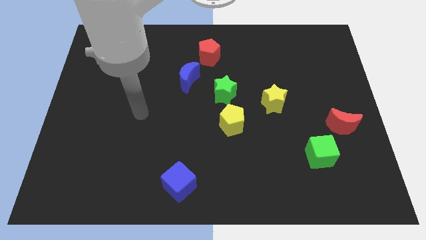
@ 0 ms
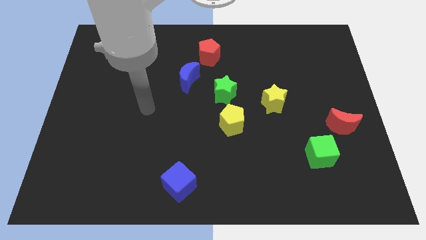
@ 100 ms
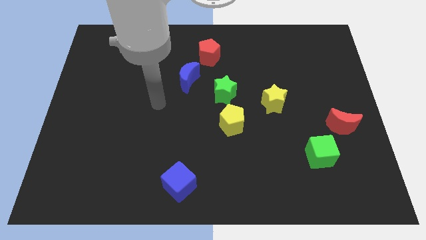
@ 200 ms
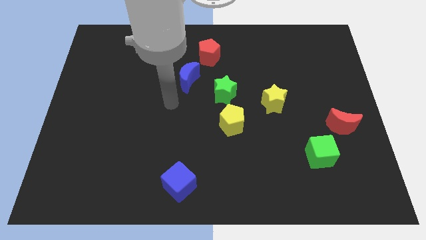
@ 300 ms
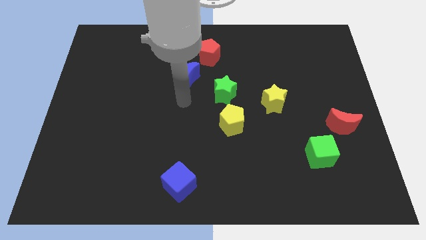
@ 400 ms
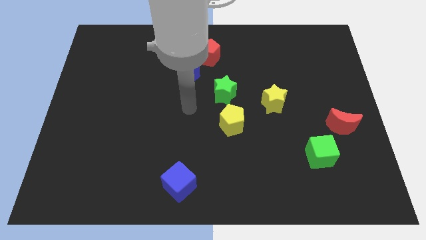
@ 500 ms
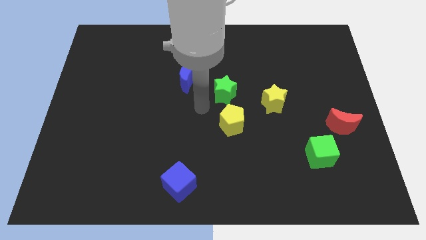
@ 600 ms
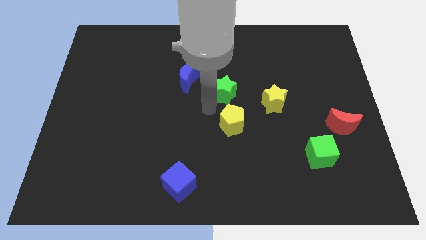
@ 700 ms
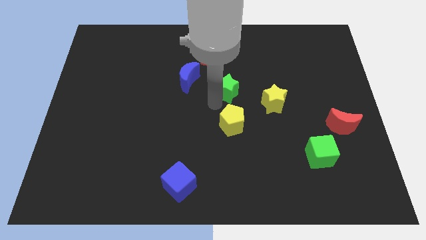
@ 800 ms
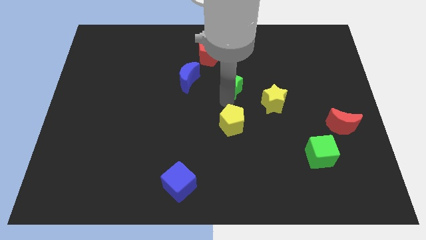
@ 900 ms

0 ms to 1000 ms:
move the yellow pentagon away from the green star

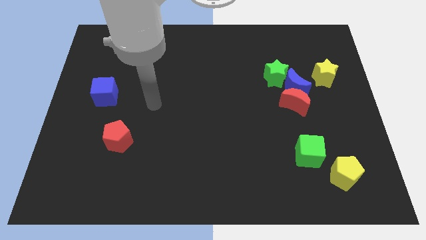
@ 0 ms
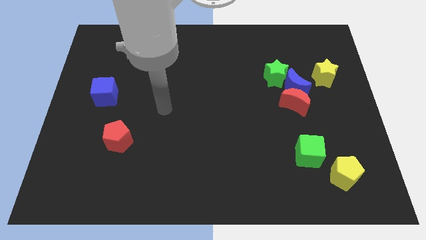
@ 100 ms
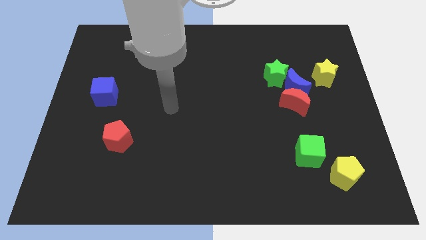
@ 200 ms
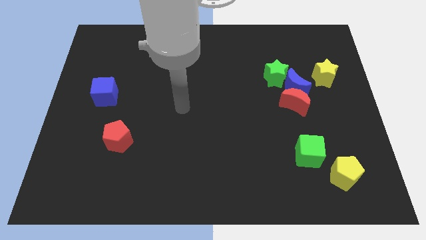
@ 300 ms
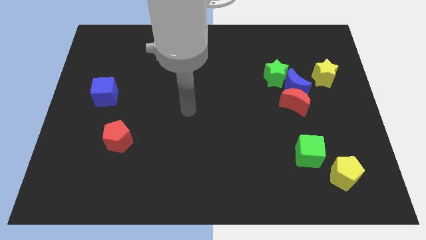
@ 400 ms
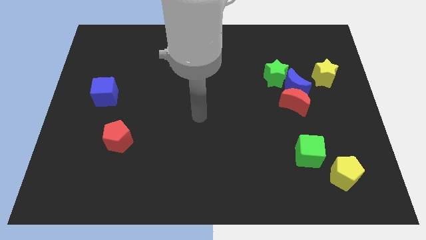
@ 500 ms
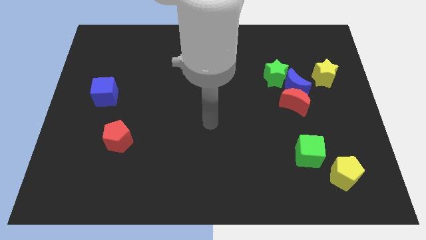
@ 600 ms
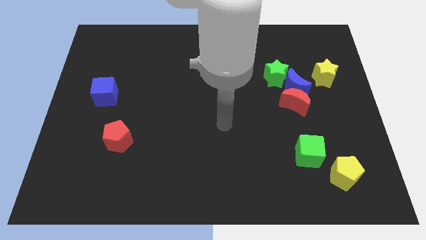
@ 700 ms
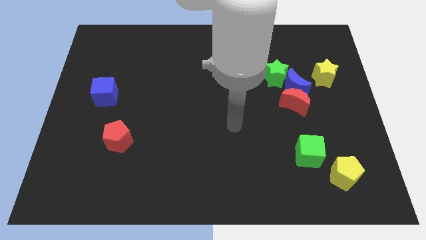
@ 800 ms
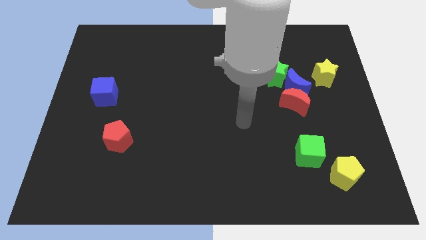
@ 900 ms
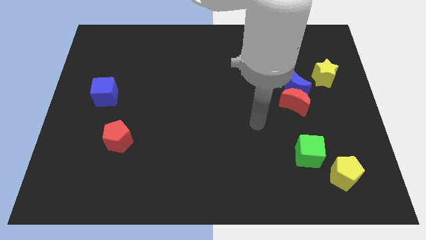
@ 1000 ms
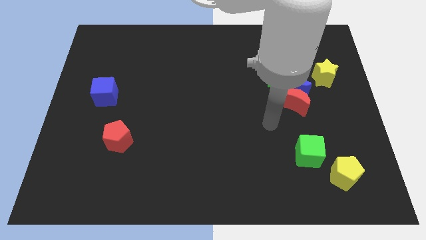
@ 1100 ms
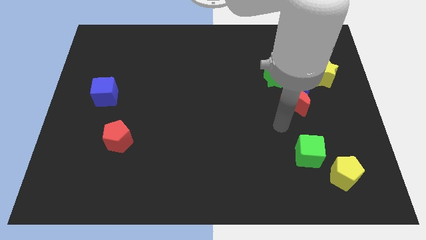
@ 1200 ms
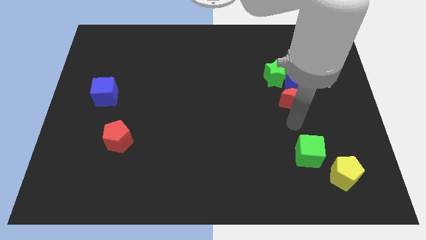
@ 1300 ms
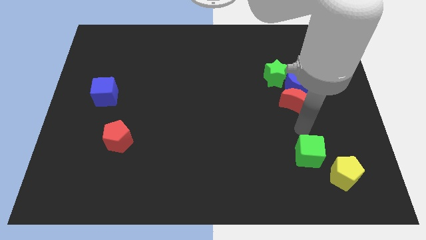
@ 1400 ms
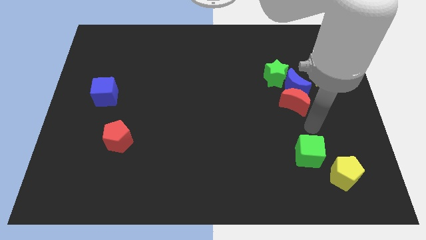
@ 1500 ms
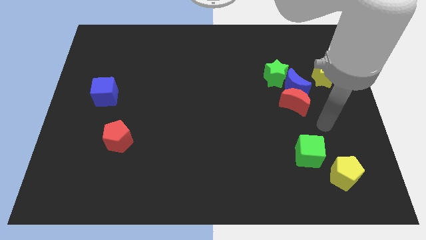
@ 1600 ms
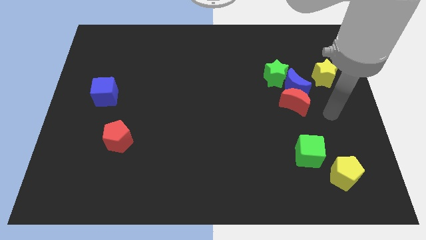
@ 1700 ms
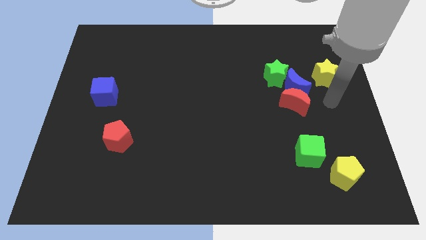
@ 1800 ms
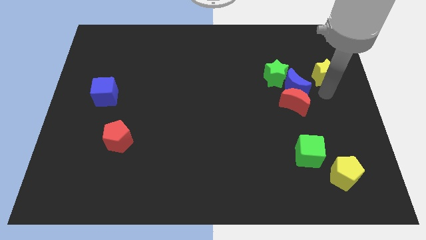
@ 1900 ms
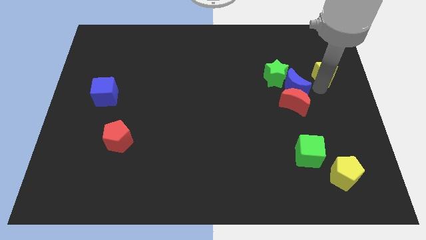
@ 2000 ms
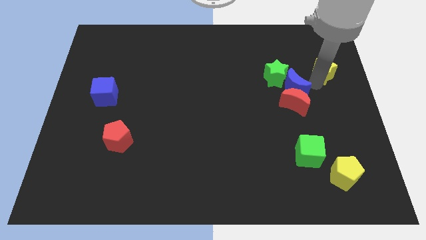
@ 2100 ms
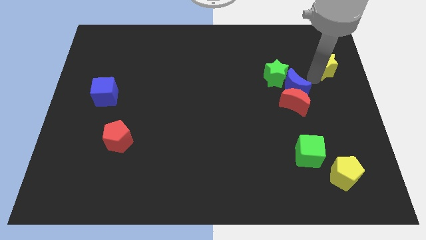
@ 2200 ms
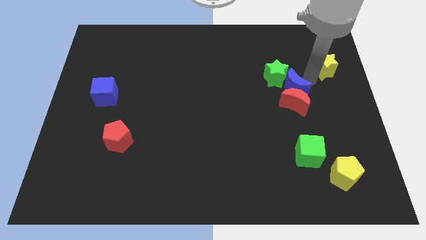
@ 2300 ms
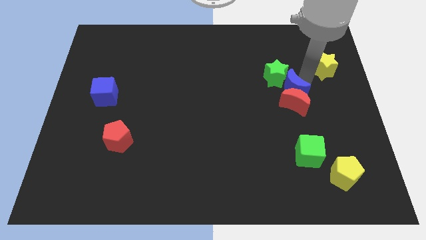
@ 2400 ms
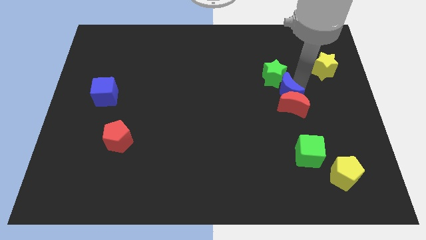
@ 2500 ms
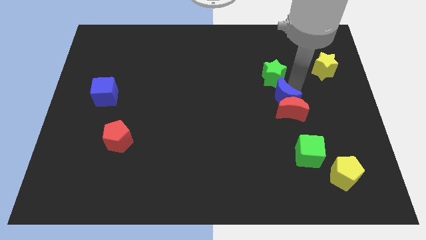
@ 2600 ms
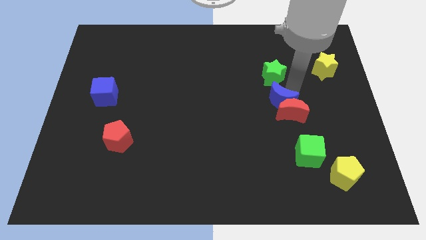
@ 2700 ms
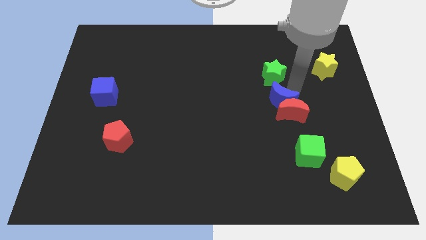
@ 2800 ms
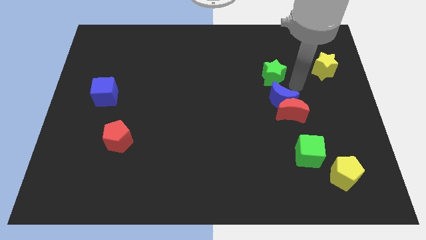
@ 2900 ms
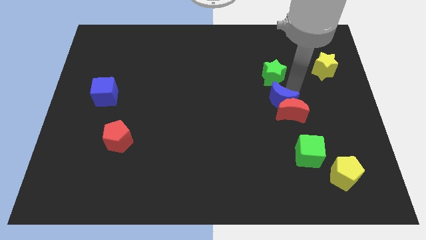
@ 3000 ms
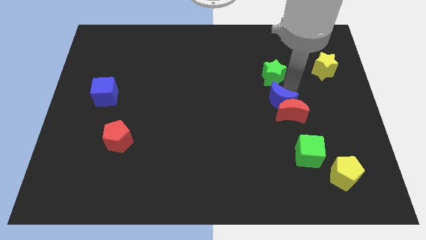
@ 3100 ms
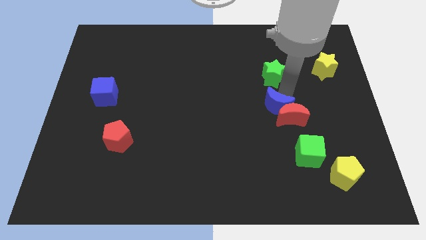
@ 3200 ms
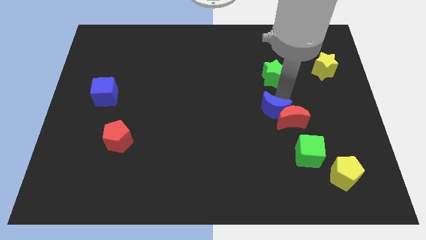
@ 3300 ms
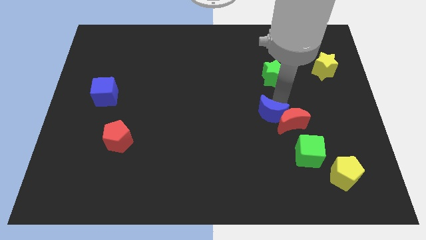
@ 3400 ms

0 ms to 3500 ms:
move the blue moon away from the red moon, green star, and yellow star

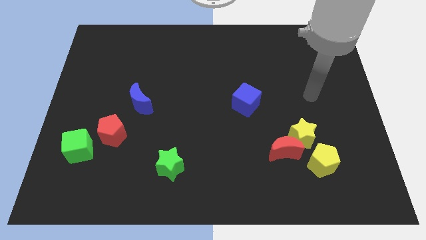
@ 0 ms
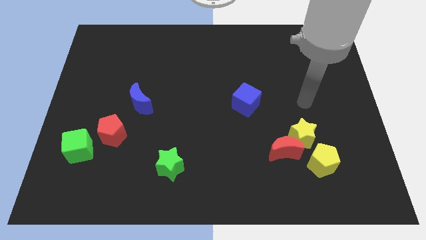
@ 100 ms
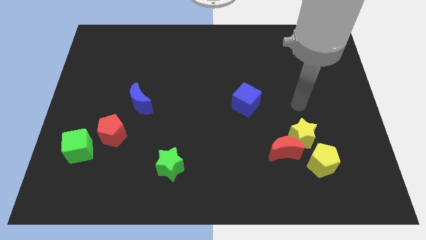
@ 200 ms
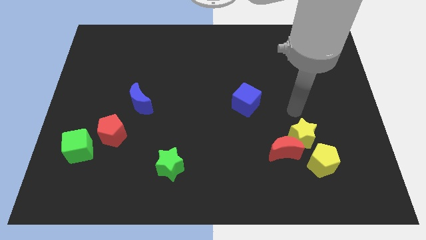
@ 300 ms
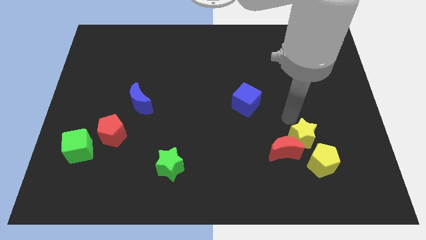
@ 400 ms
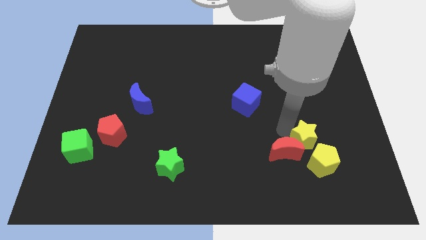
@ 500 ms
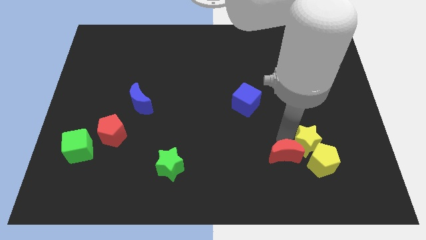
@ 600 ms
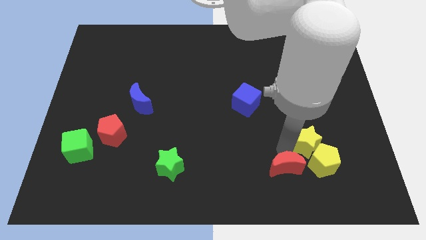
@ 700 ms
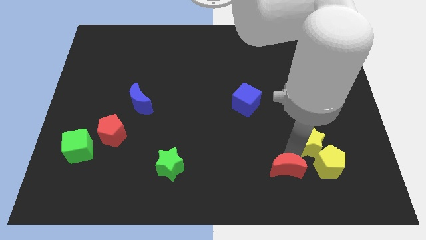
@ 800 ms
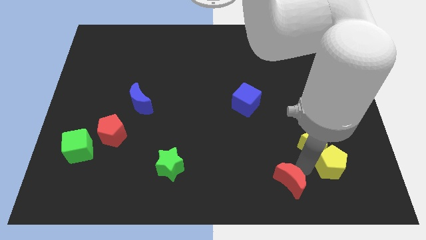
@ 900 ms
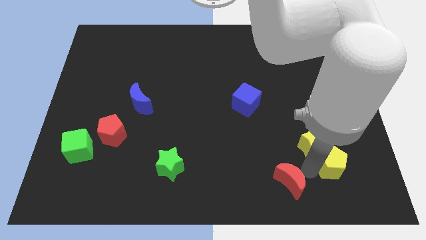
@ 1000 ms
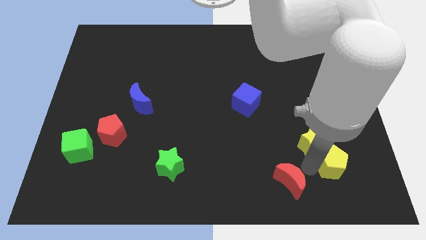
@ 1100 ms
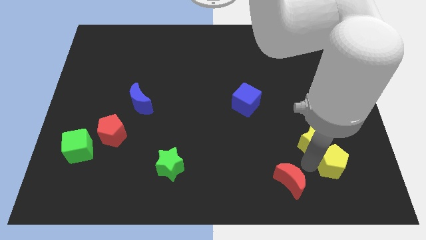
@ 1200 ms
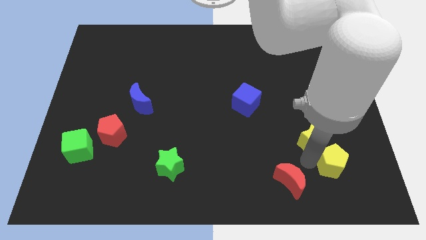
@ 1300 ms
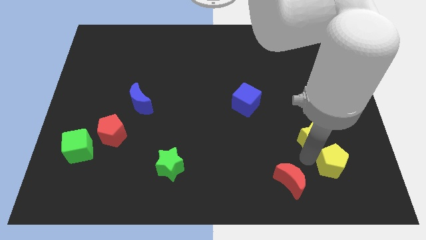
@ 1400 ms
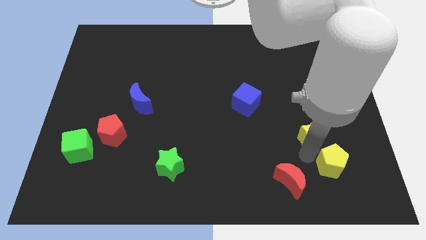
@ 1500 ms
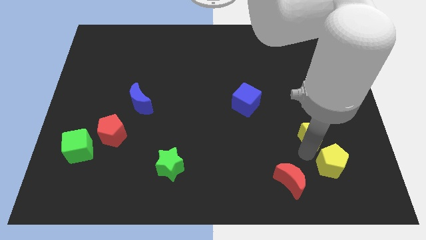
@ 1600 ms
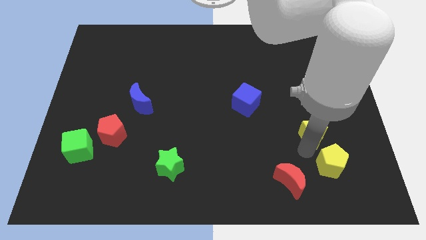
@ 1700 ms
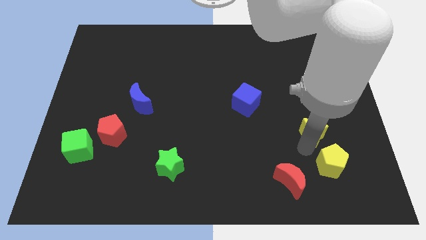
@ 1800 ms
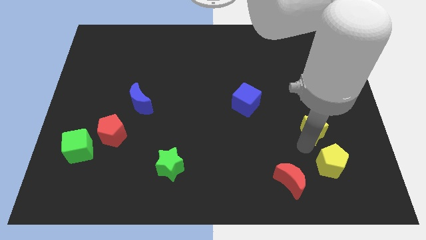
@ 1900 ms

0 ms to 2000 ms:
separate the yellow star from the red moon and yellow pentagon

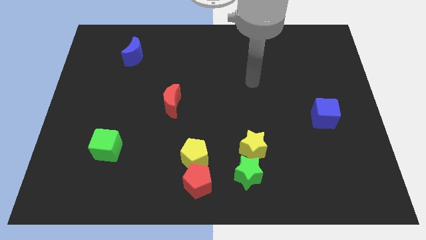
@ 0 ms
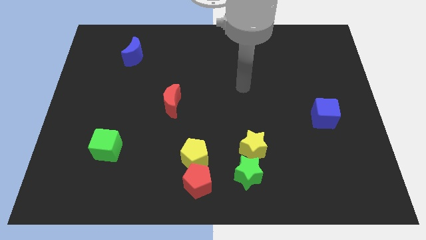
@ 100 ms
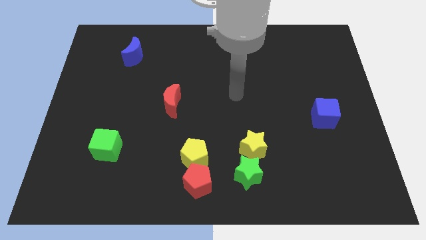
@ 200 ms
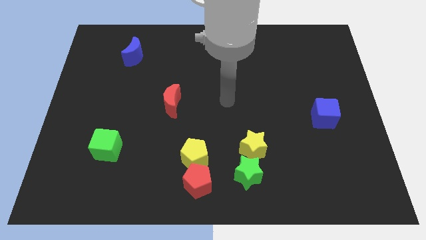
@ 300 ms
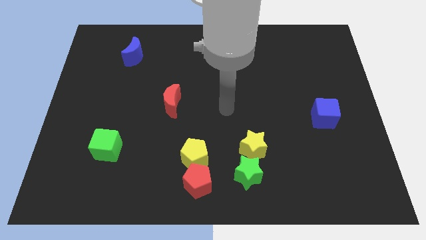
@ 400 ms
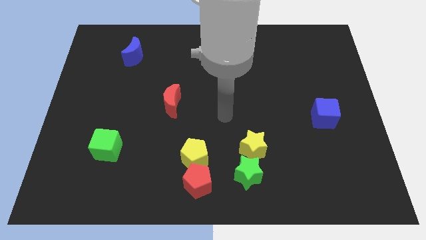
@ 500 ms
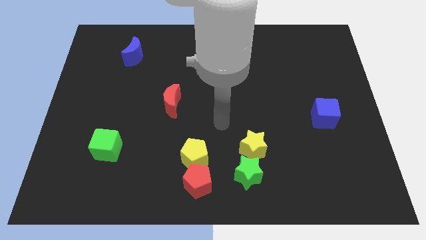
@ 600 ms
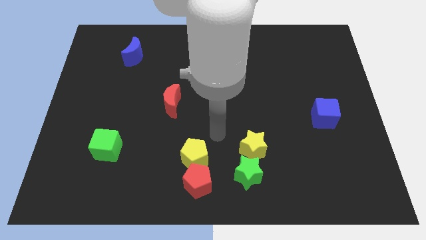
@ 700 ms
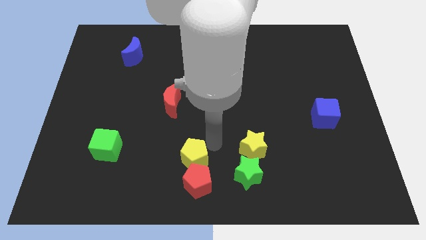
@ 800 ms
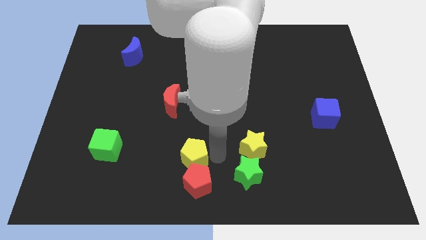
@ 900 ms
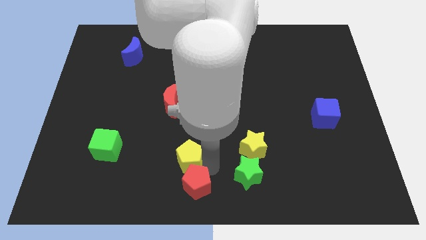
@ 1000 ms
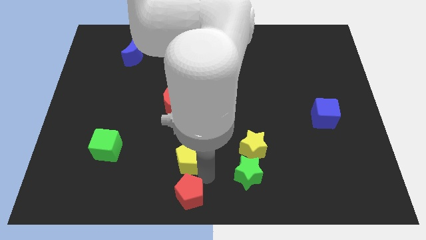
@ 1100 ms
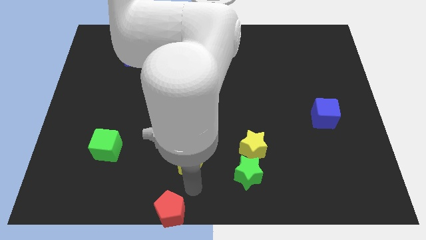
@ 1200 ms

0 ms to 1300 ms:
move the yellow pentagon away from the red pentagon

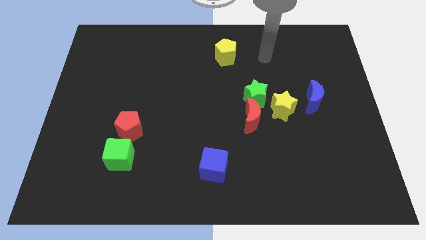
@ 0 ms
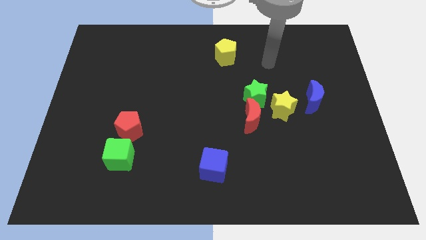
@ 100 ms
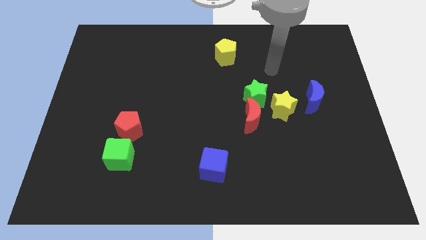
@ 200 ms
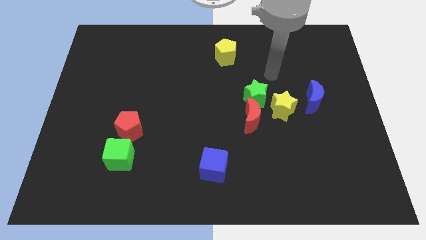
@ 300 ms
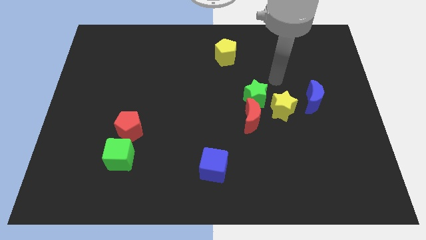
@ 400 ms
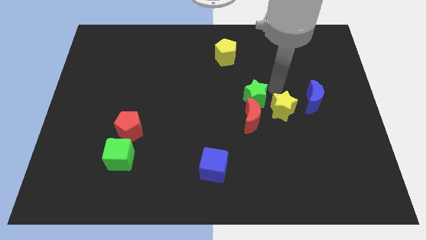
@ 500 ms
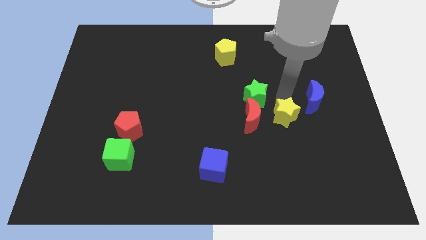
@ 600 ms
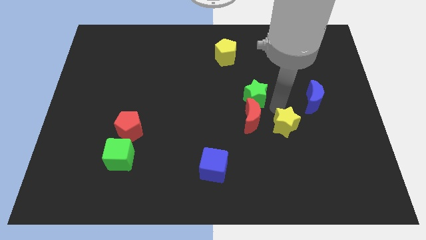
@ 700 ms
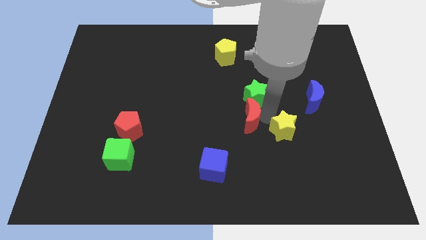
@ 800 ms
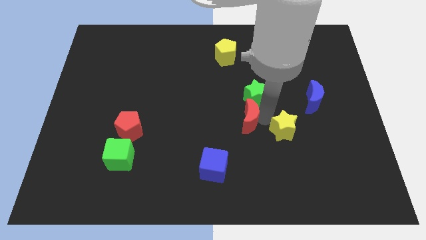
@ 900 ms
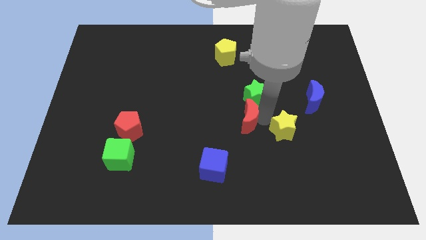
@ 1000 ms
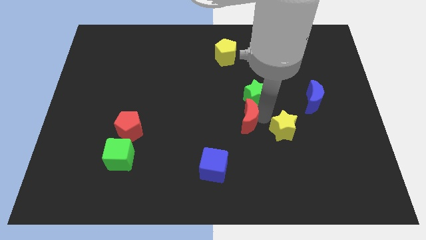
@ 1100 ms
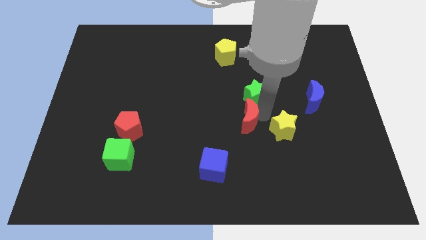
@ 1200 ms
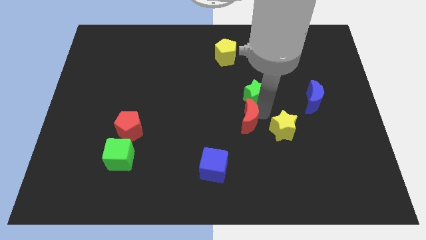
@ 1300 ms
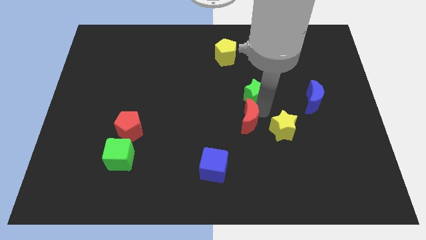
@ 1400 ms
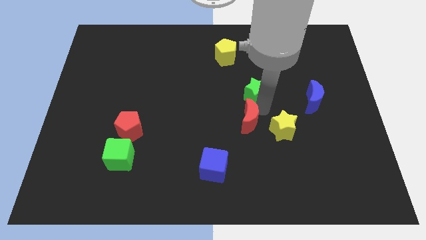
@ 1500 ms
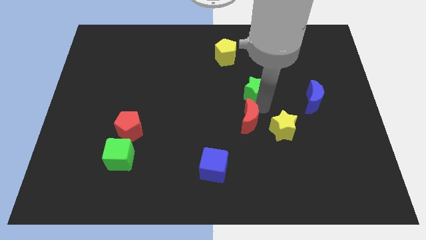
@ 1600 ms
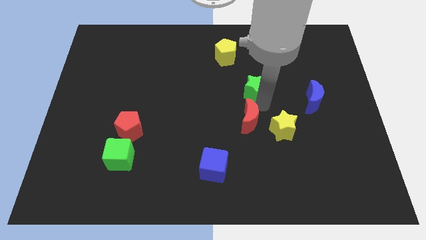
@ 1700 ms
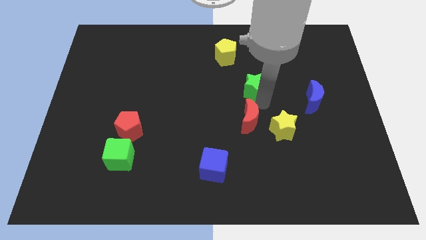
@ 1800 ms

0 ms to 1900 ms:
move the green star away from the red moon and yellow star
